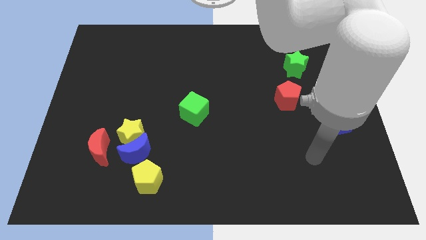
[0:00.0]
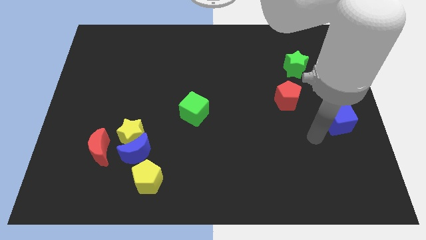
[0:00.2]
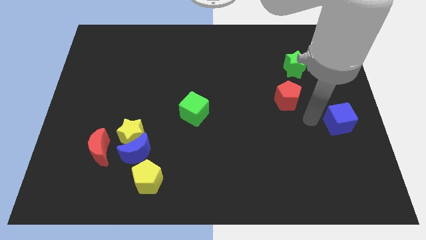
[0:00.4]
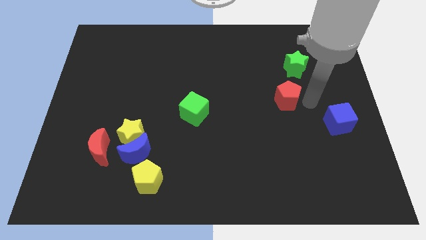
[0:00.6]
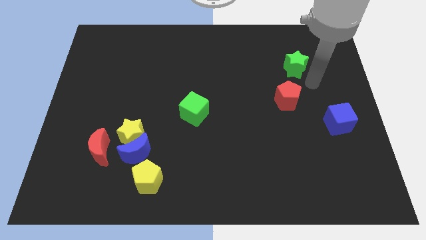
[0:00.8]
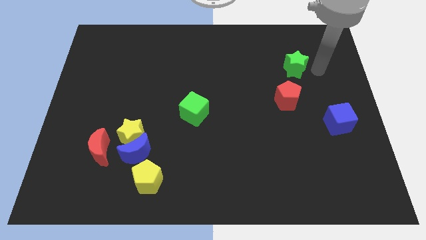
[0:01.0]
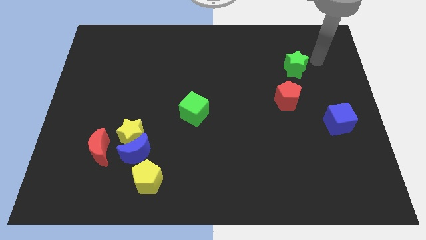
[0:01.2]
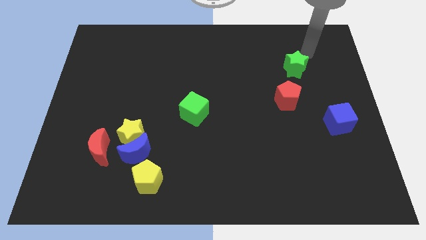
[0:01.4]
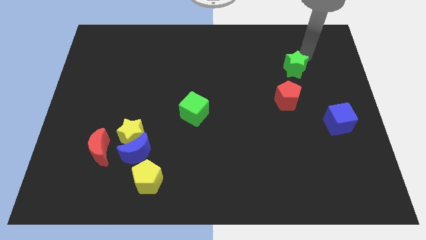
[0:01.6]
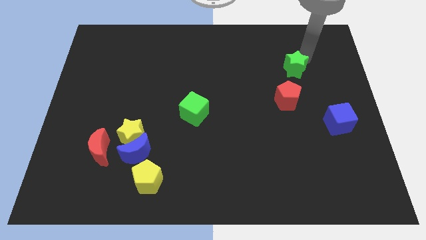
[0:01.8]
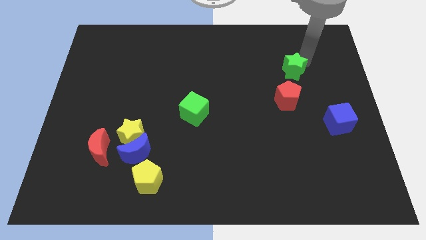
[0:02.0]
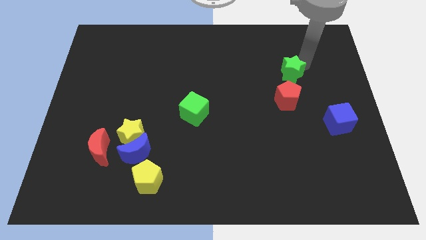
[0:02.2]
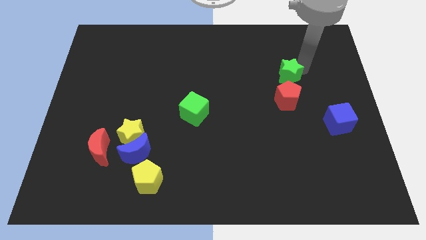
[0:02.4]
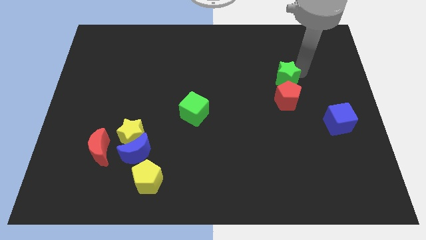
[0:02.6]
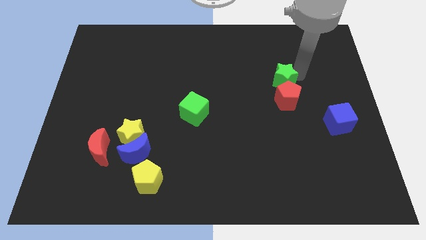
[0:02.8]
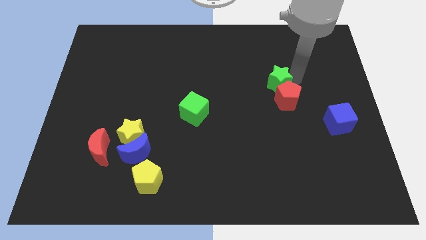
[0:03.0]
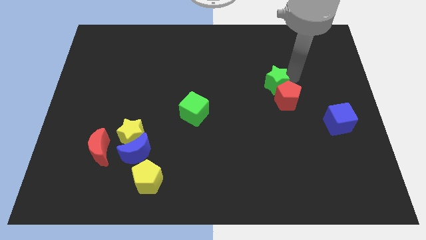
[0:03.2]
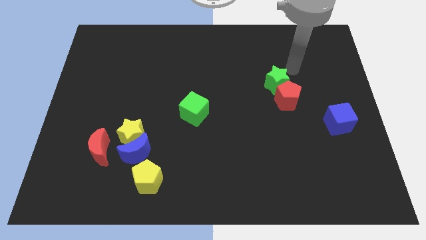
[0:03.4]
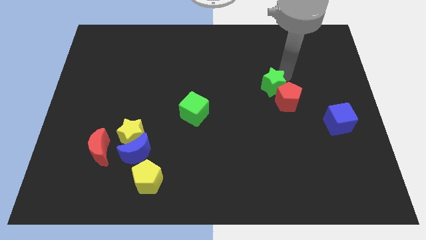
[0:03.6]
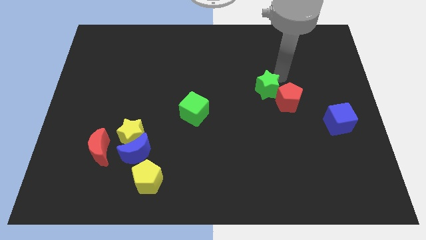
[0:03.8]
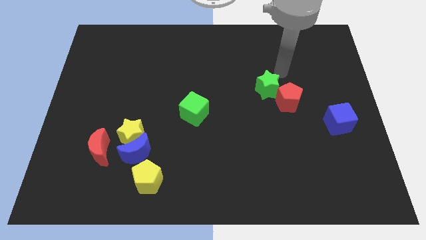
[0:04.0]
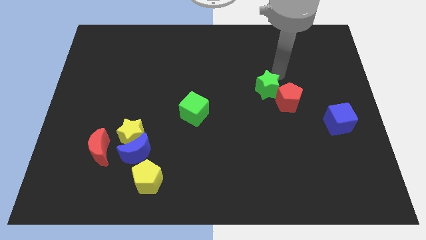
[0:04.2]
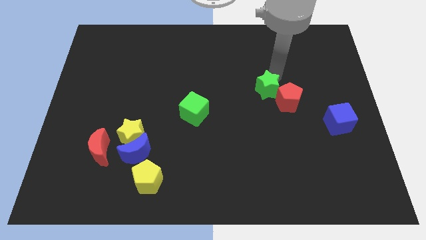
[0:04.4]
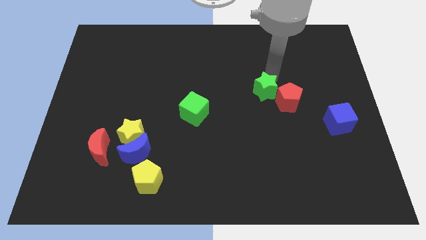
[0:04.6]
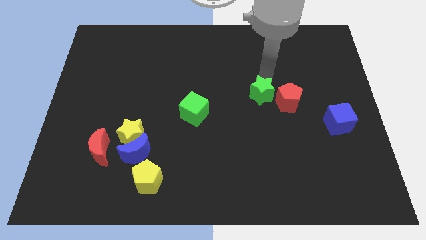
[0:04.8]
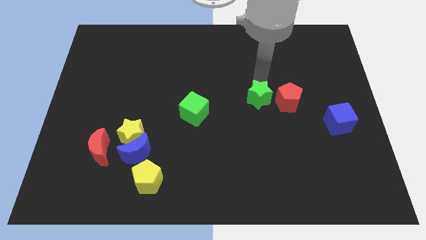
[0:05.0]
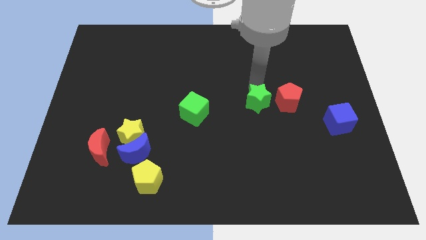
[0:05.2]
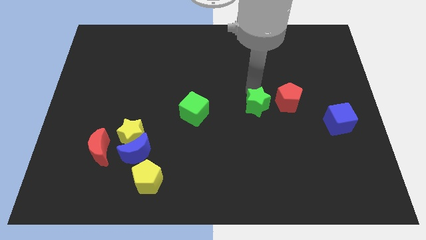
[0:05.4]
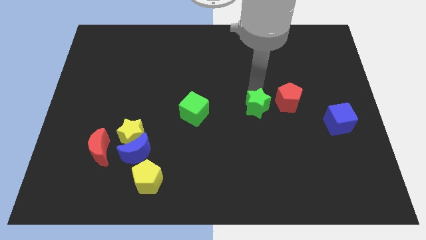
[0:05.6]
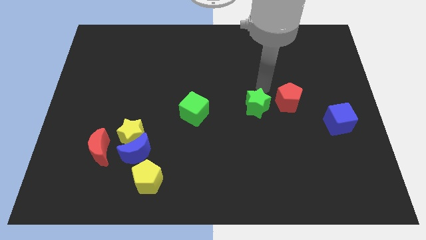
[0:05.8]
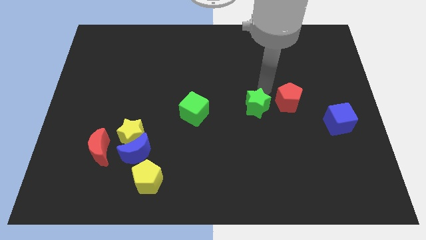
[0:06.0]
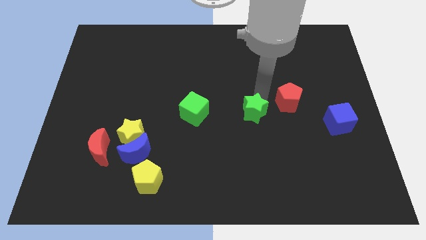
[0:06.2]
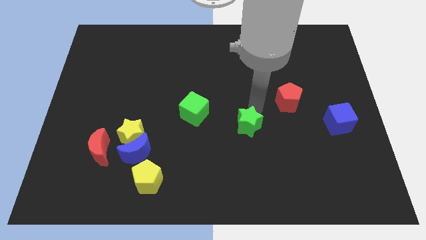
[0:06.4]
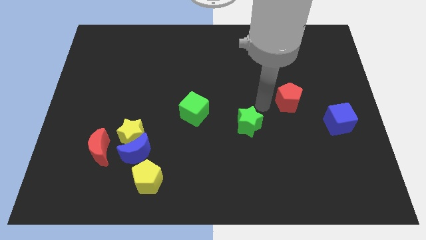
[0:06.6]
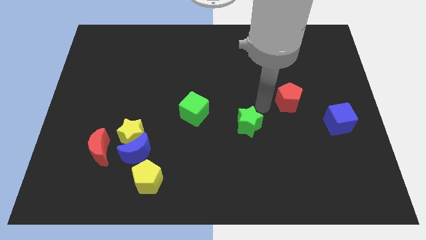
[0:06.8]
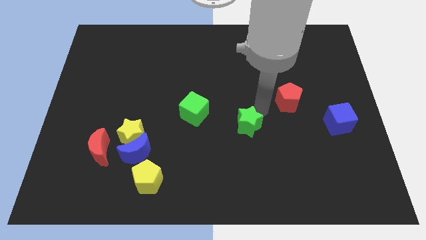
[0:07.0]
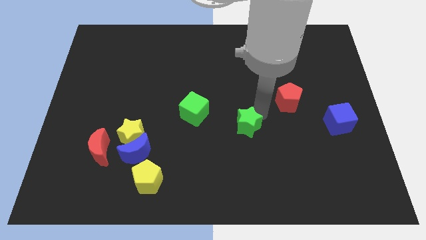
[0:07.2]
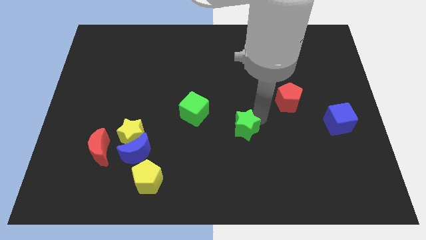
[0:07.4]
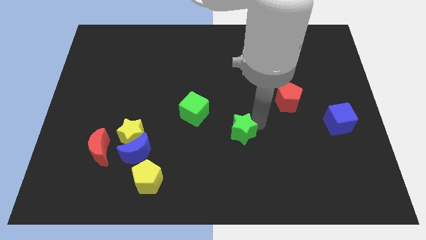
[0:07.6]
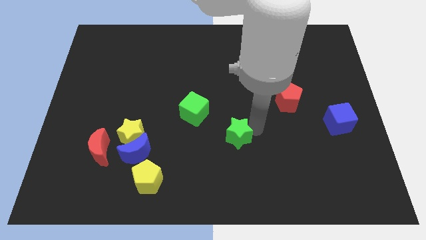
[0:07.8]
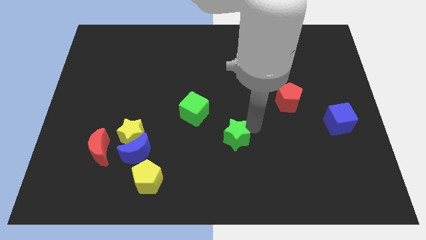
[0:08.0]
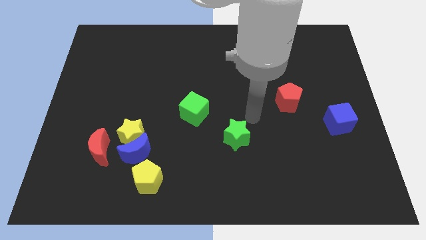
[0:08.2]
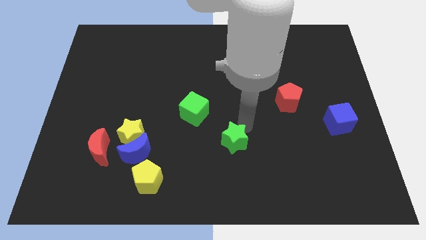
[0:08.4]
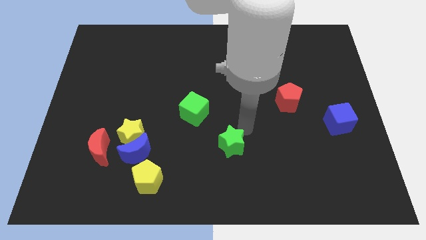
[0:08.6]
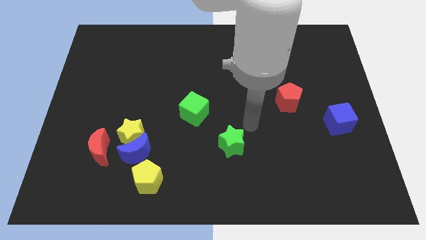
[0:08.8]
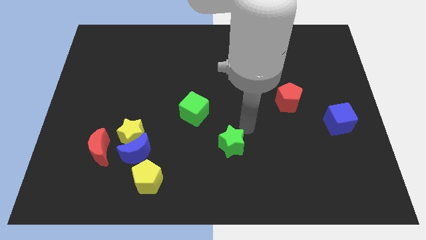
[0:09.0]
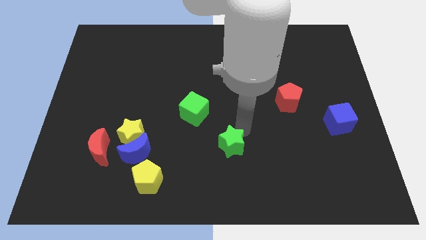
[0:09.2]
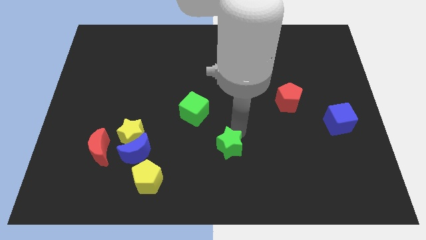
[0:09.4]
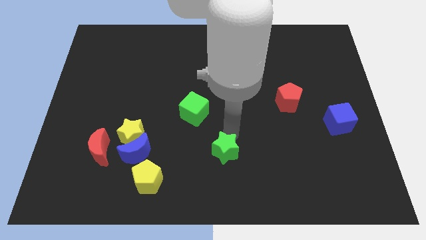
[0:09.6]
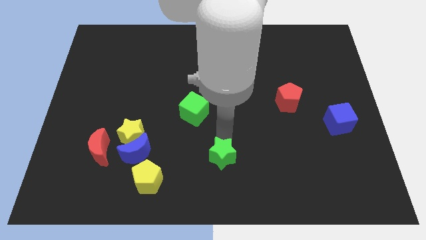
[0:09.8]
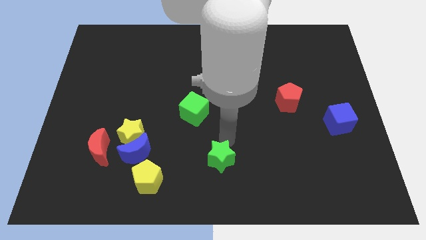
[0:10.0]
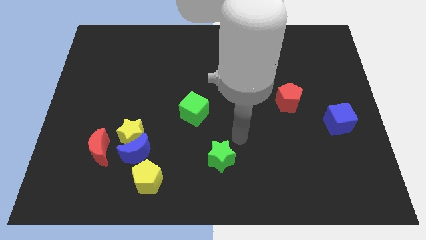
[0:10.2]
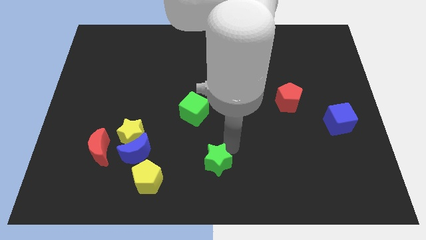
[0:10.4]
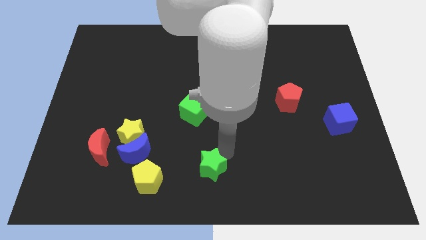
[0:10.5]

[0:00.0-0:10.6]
put the green star to the right side of the yellow pentagon

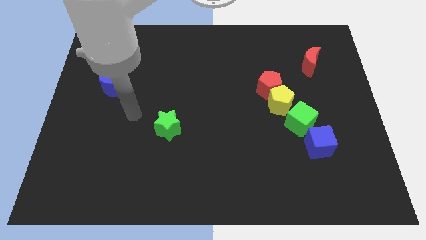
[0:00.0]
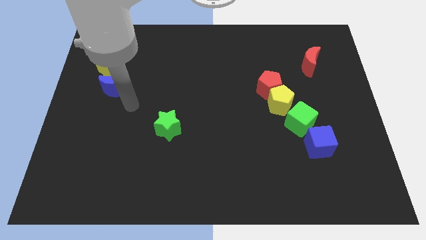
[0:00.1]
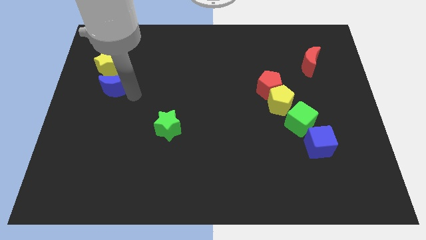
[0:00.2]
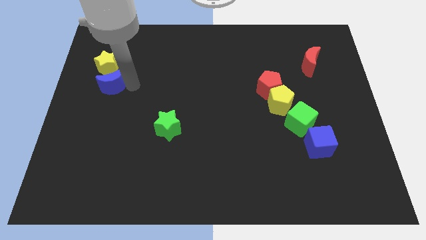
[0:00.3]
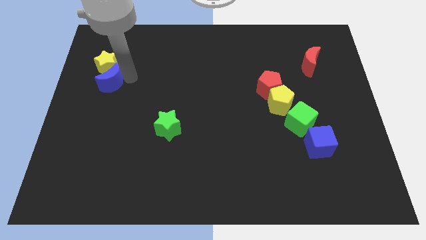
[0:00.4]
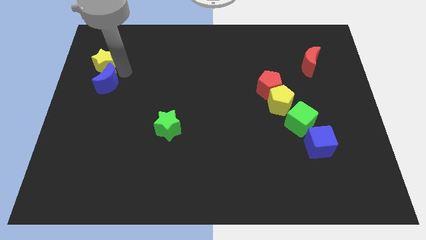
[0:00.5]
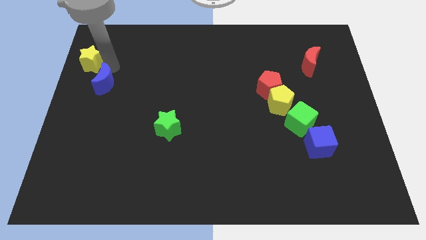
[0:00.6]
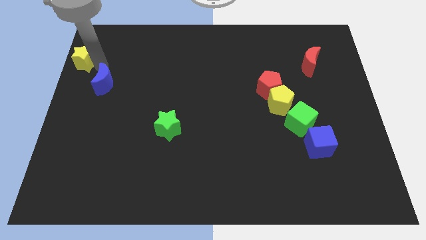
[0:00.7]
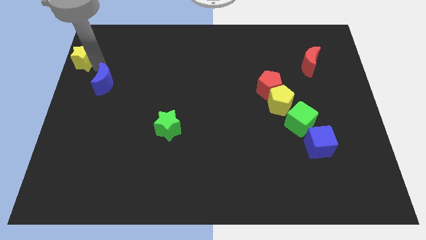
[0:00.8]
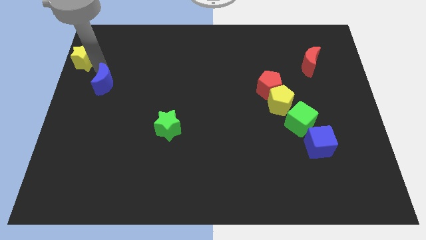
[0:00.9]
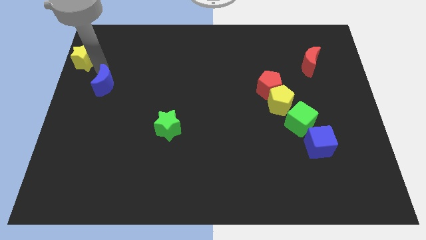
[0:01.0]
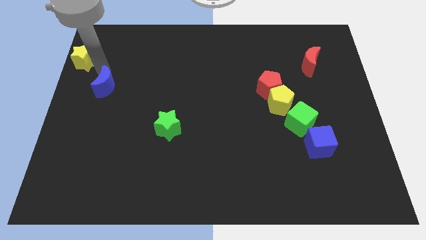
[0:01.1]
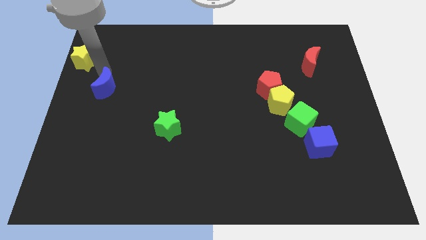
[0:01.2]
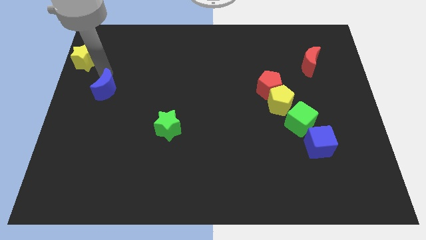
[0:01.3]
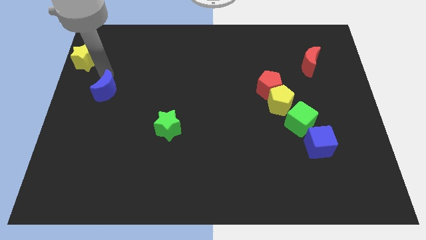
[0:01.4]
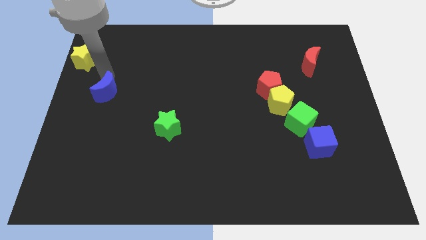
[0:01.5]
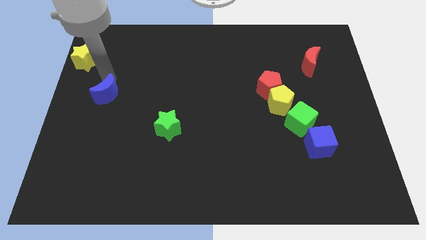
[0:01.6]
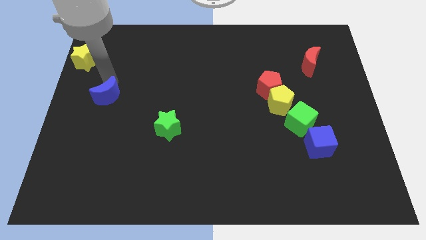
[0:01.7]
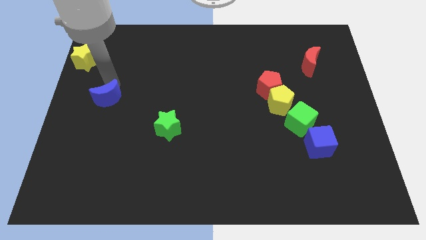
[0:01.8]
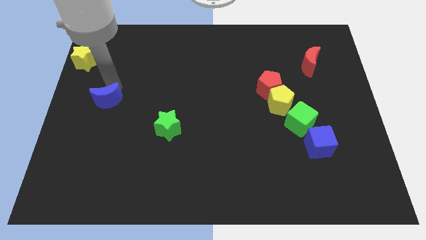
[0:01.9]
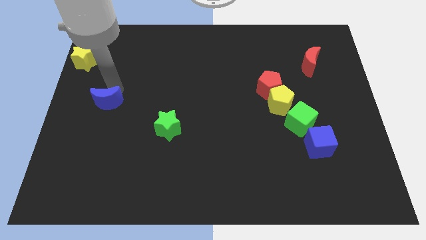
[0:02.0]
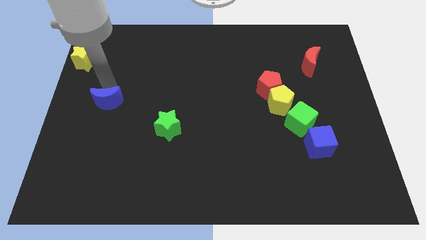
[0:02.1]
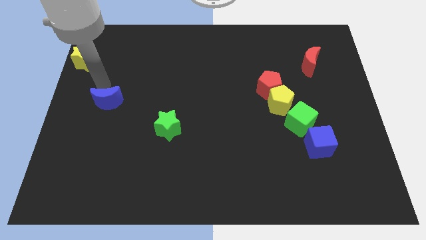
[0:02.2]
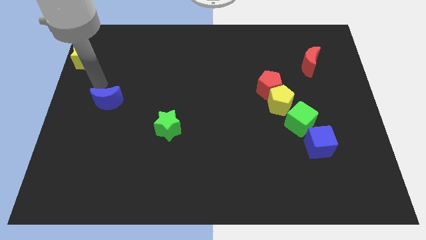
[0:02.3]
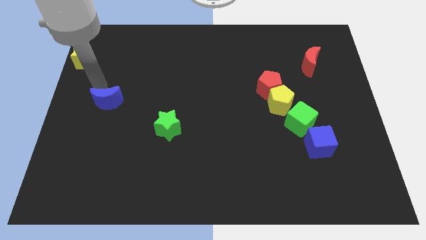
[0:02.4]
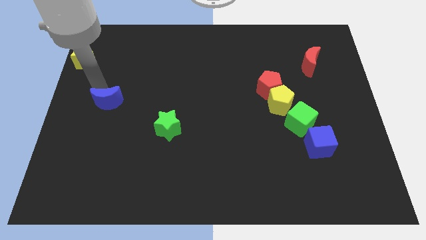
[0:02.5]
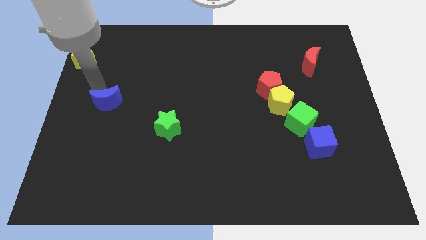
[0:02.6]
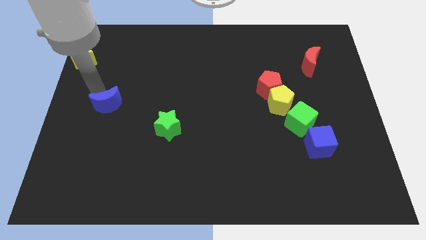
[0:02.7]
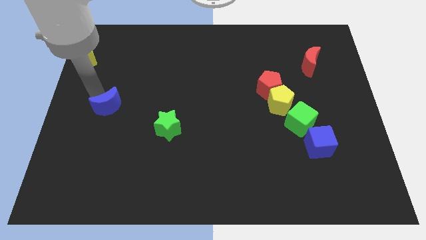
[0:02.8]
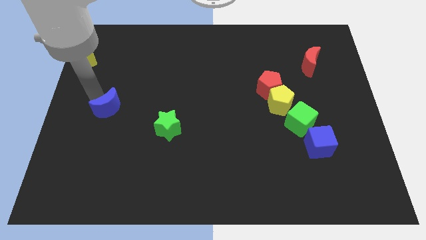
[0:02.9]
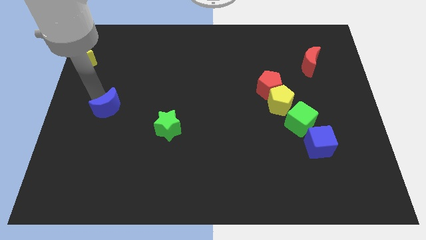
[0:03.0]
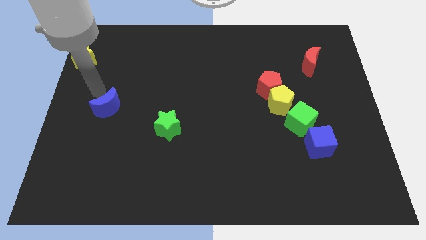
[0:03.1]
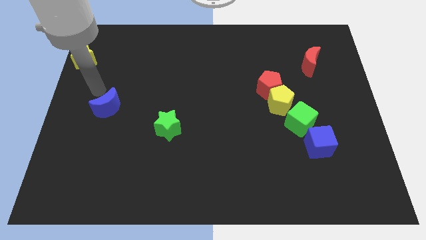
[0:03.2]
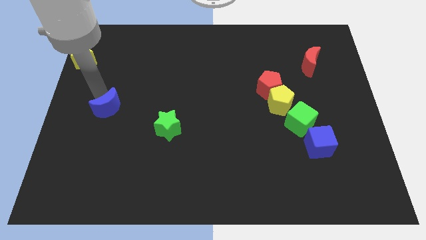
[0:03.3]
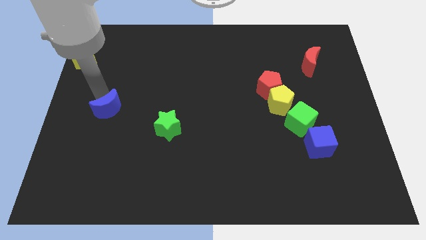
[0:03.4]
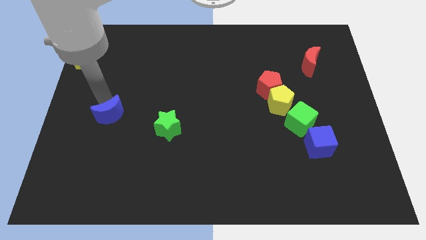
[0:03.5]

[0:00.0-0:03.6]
push the blue moon left of the green star
